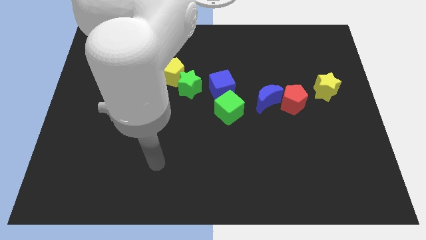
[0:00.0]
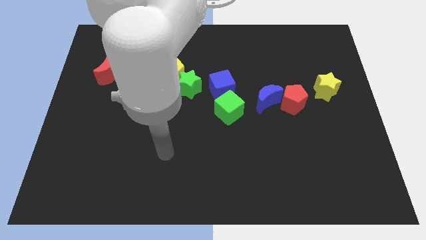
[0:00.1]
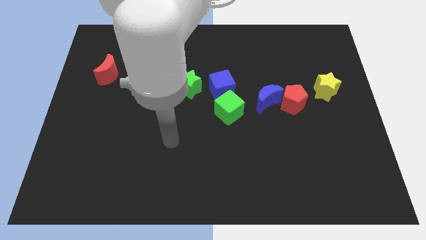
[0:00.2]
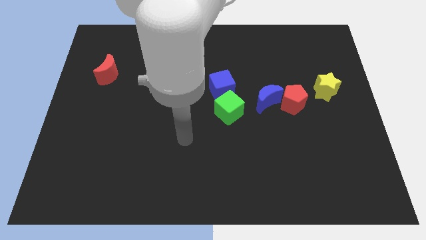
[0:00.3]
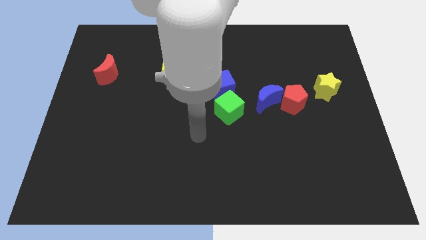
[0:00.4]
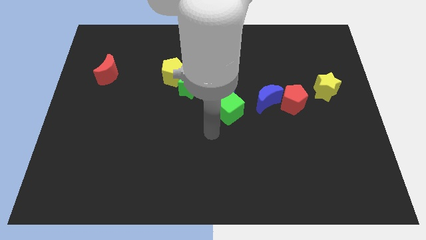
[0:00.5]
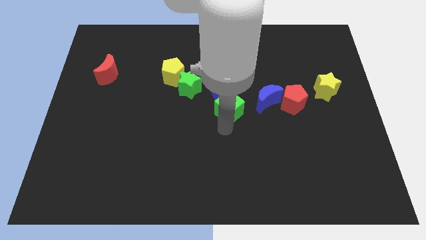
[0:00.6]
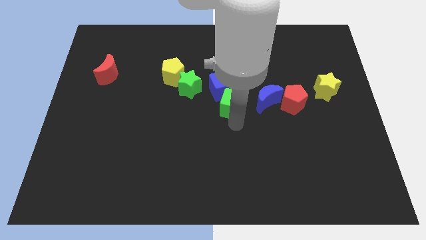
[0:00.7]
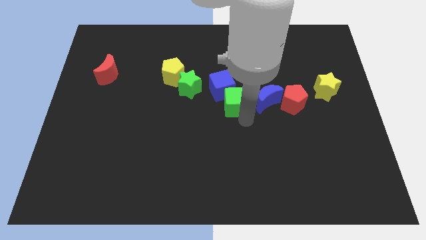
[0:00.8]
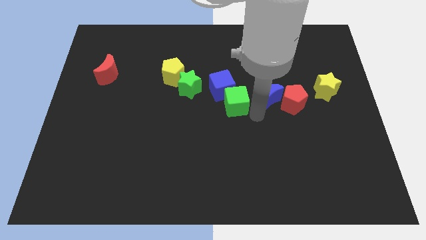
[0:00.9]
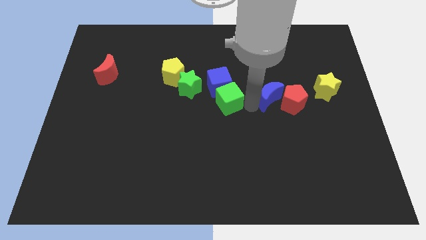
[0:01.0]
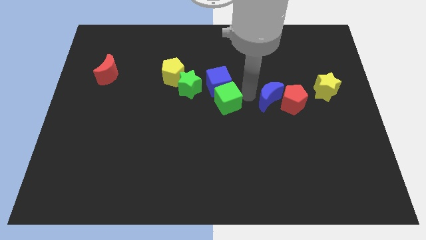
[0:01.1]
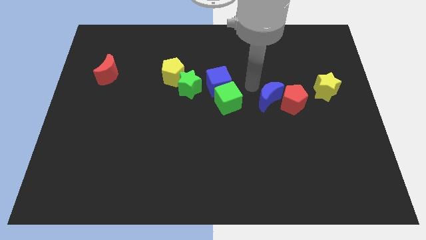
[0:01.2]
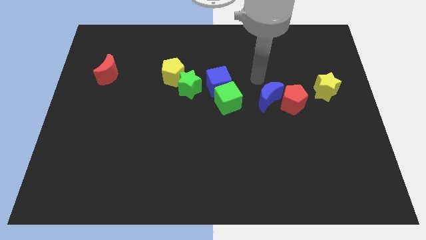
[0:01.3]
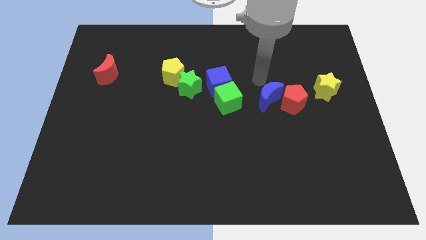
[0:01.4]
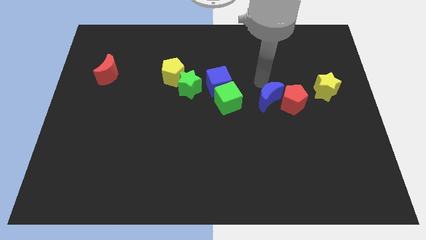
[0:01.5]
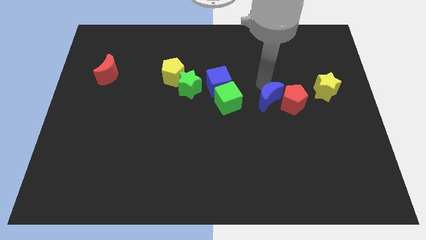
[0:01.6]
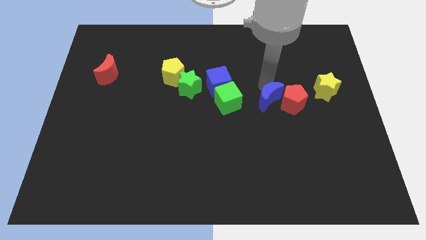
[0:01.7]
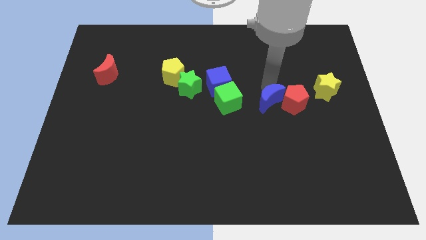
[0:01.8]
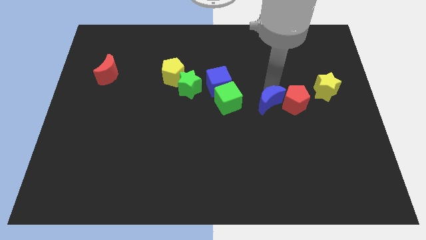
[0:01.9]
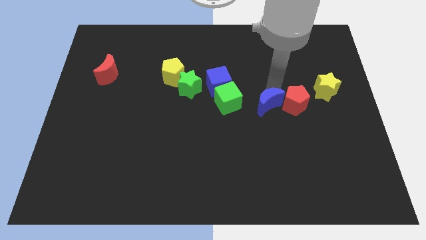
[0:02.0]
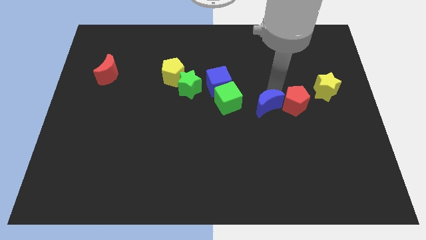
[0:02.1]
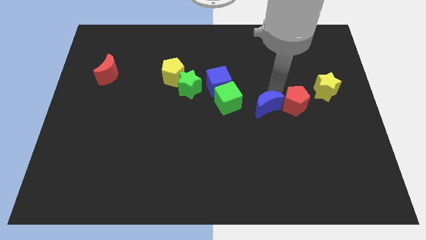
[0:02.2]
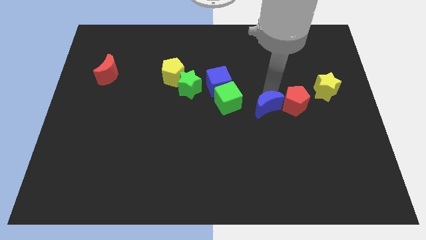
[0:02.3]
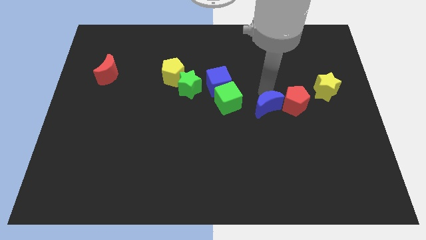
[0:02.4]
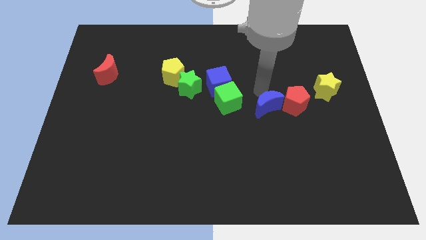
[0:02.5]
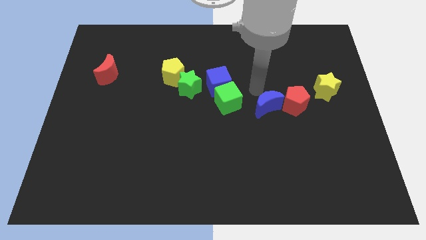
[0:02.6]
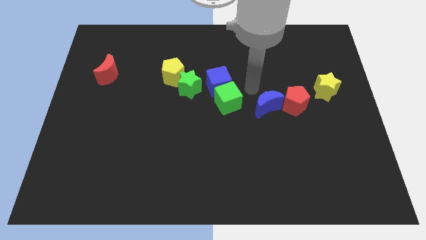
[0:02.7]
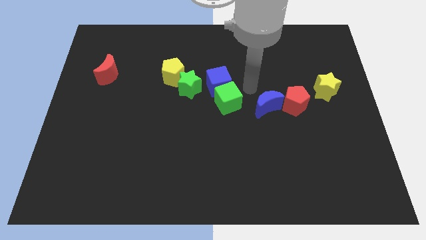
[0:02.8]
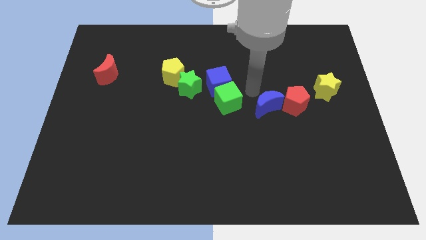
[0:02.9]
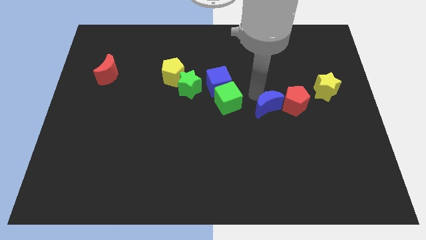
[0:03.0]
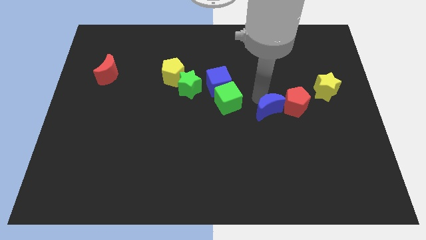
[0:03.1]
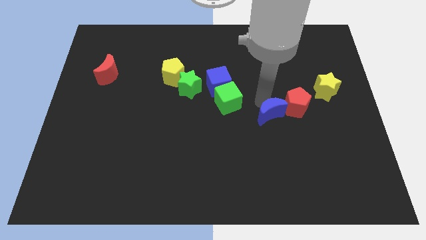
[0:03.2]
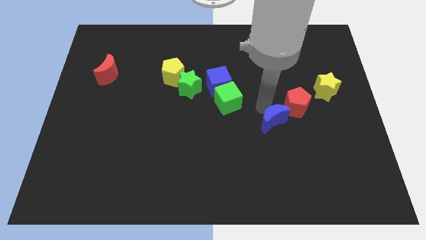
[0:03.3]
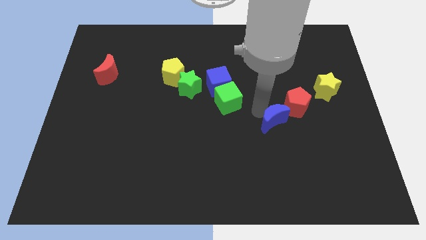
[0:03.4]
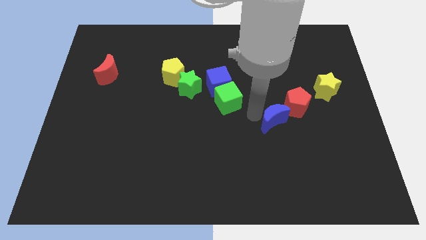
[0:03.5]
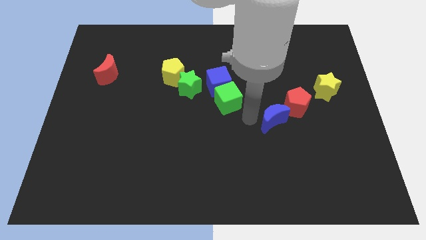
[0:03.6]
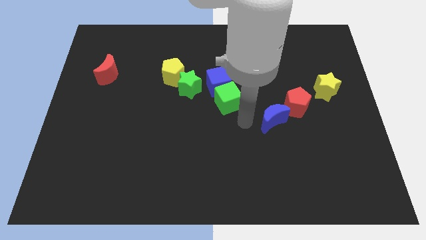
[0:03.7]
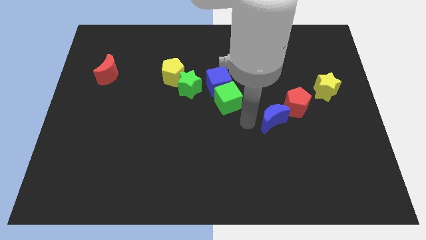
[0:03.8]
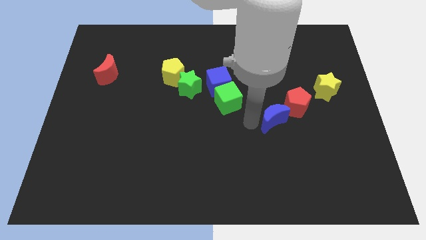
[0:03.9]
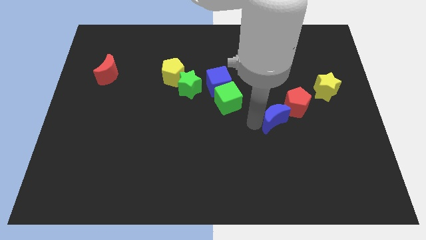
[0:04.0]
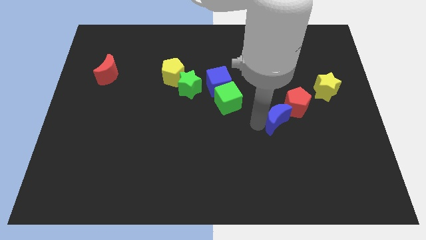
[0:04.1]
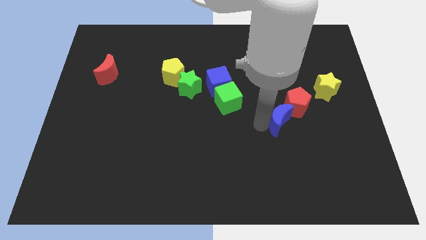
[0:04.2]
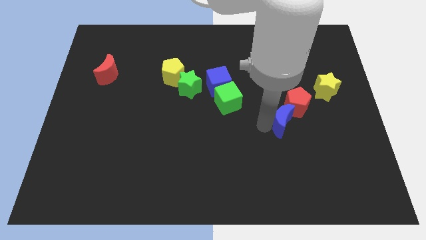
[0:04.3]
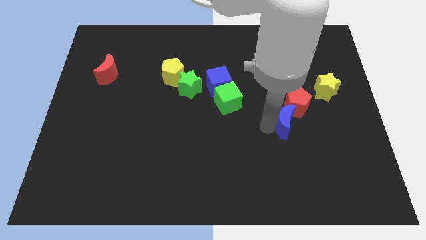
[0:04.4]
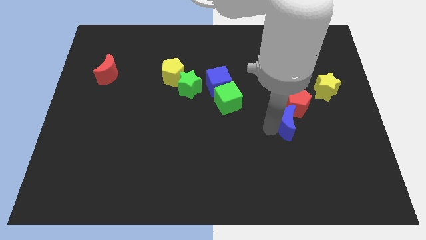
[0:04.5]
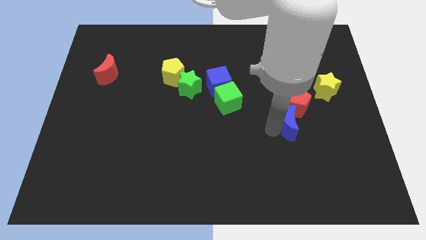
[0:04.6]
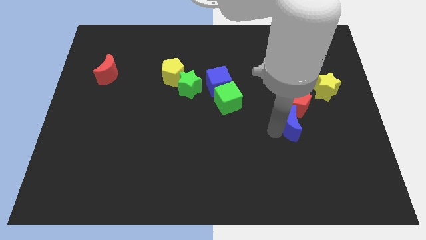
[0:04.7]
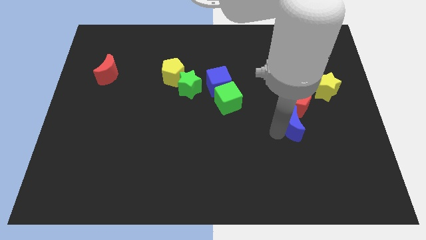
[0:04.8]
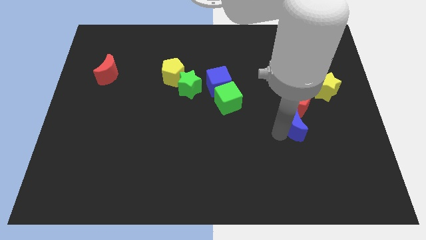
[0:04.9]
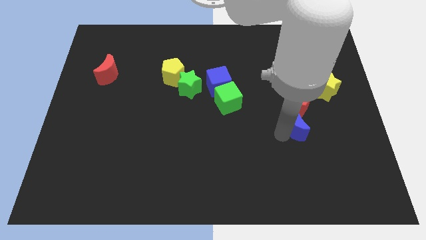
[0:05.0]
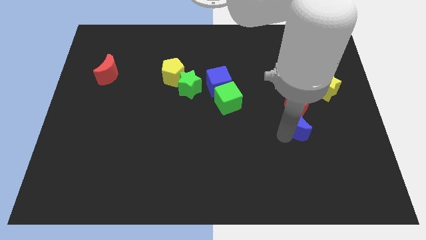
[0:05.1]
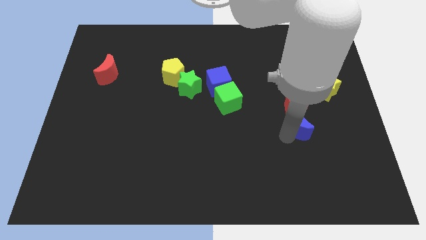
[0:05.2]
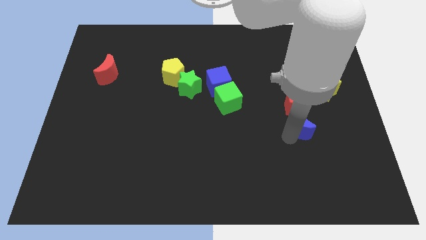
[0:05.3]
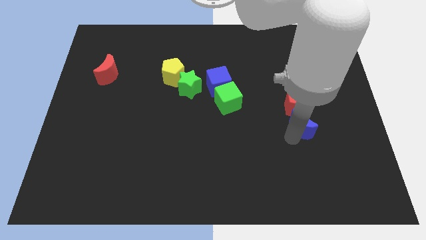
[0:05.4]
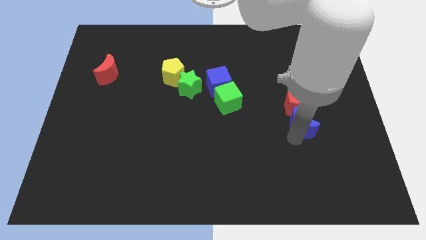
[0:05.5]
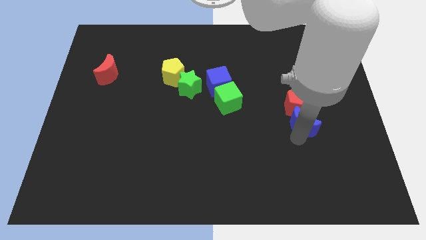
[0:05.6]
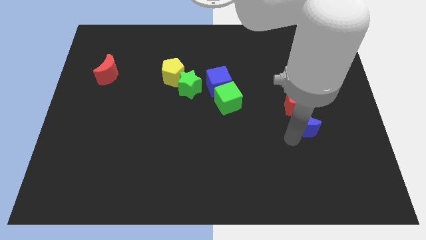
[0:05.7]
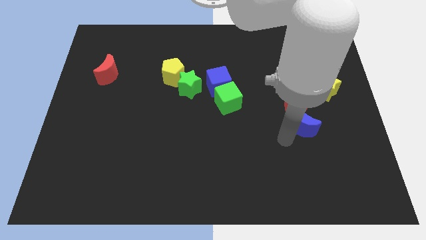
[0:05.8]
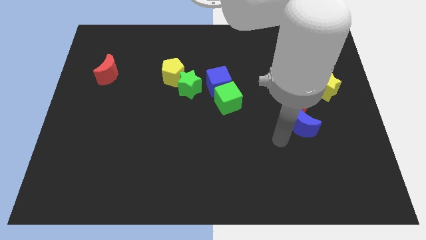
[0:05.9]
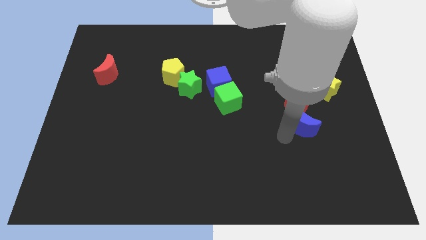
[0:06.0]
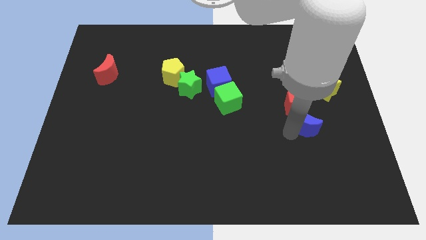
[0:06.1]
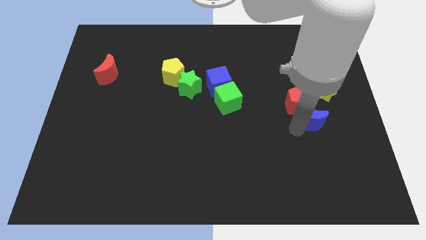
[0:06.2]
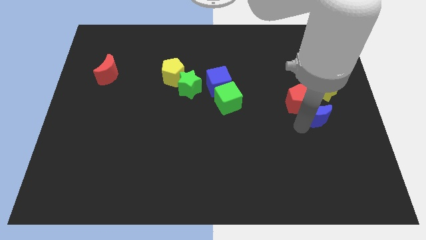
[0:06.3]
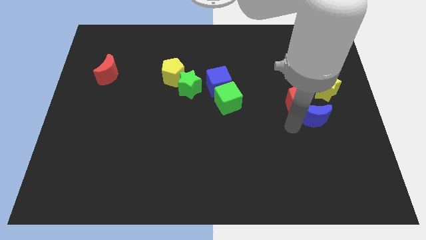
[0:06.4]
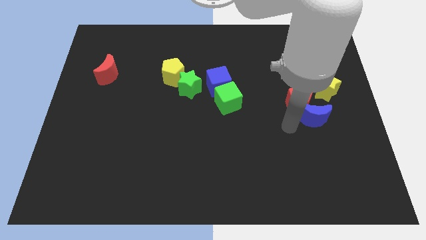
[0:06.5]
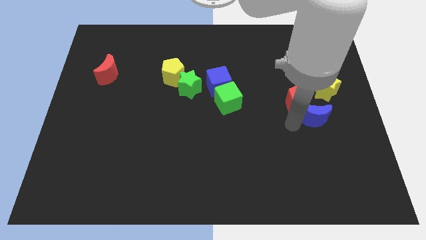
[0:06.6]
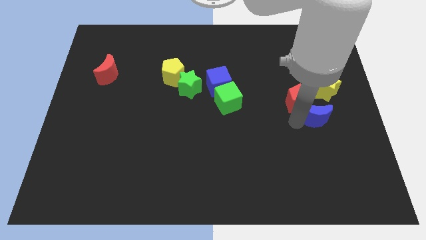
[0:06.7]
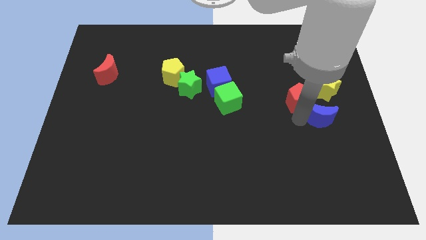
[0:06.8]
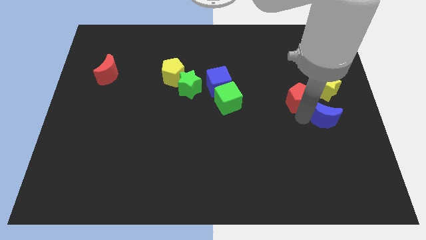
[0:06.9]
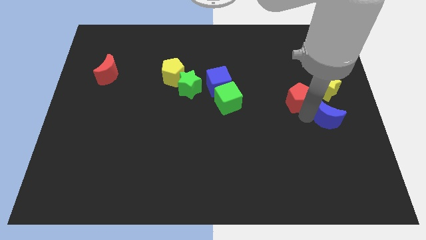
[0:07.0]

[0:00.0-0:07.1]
move the blue moon to the center right
